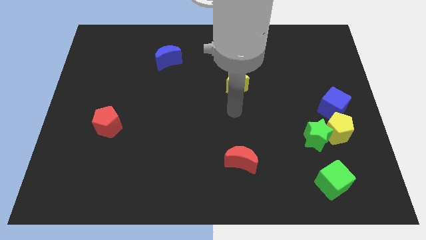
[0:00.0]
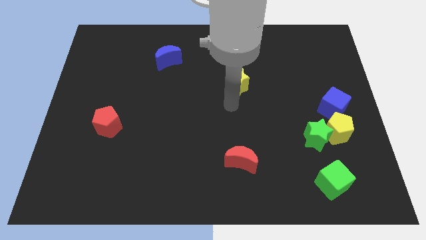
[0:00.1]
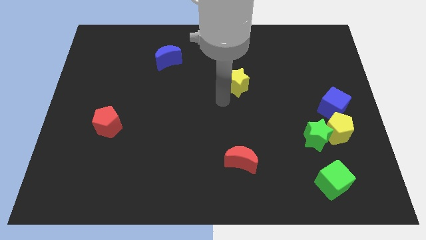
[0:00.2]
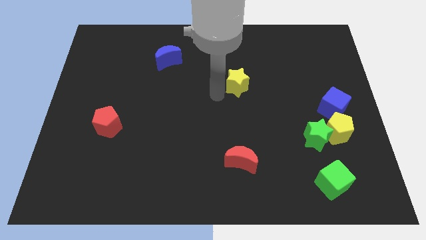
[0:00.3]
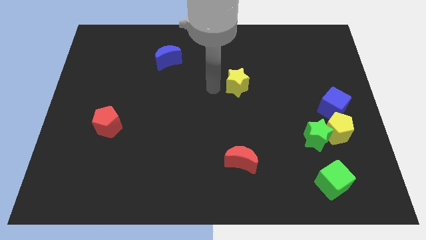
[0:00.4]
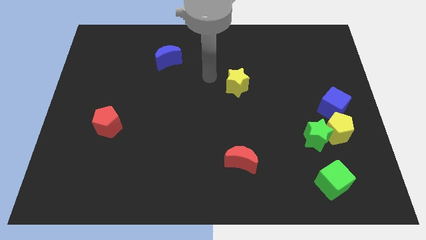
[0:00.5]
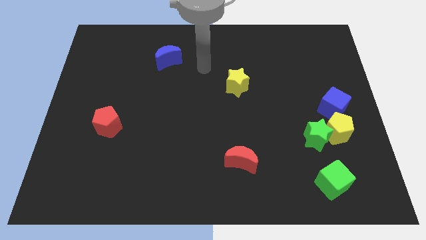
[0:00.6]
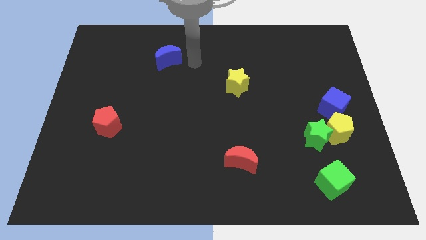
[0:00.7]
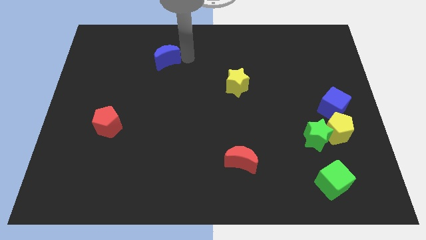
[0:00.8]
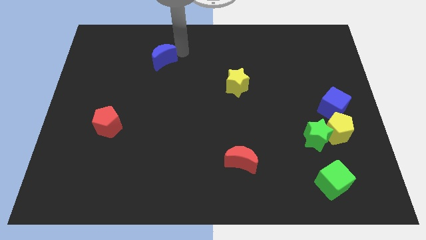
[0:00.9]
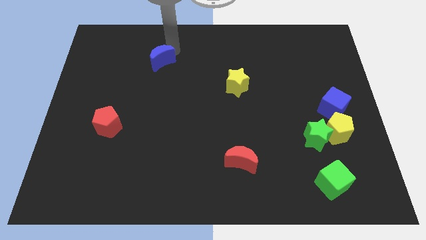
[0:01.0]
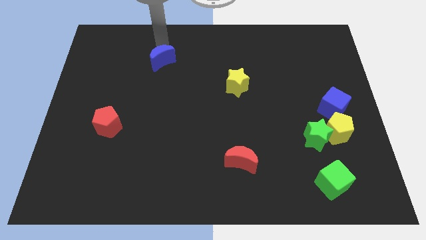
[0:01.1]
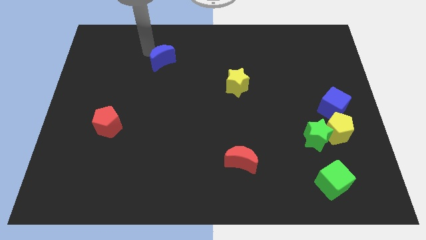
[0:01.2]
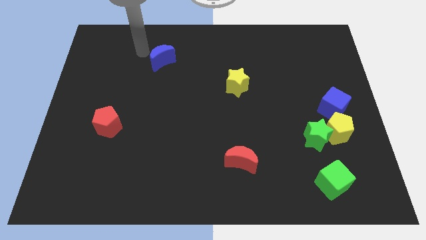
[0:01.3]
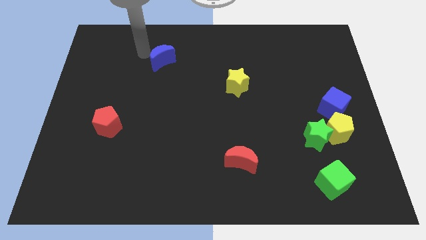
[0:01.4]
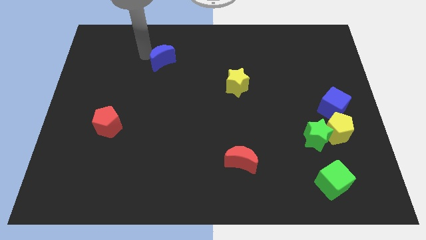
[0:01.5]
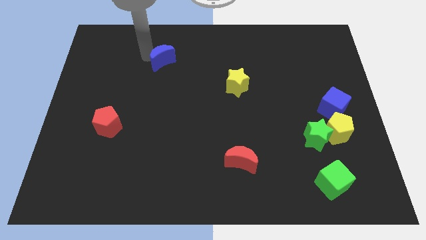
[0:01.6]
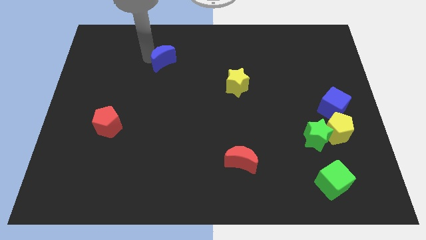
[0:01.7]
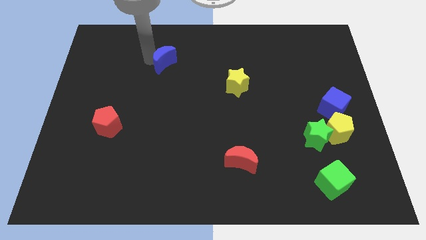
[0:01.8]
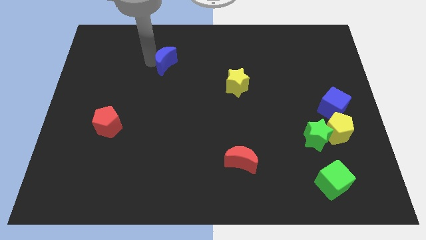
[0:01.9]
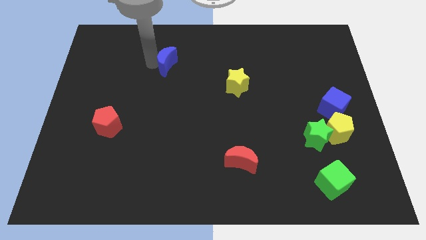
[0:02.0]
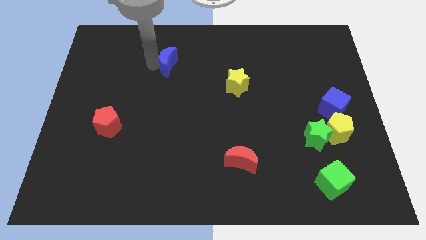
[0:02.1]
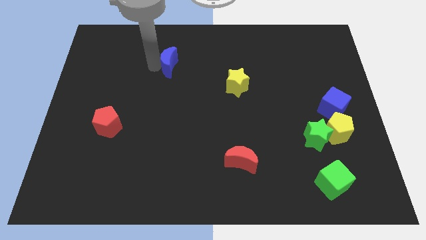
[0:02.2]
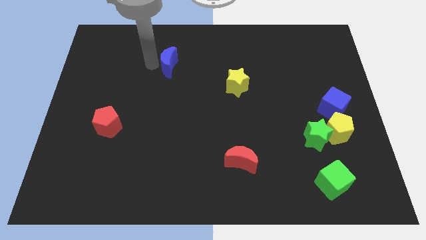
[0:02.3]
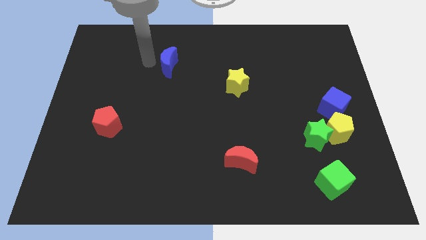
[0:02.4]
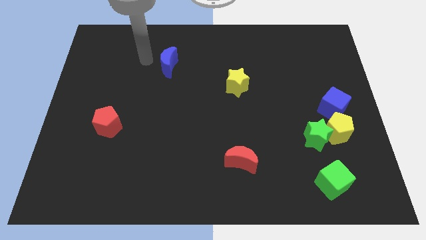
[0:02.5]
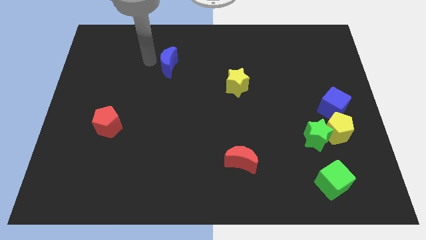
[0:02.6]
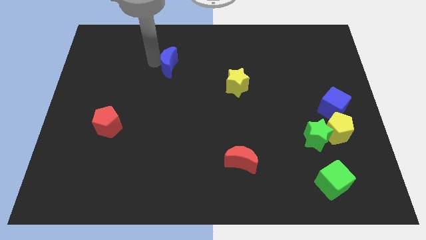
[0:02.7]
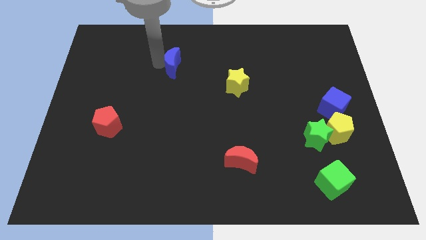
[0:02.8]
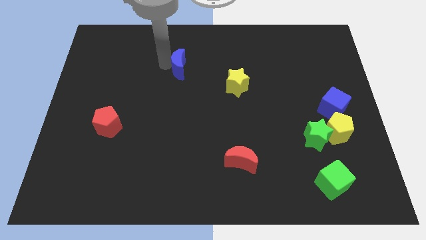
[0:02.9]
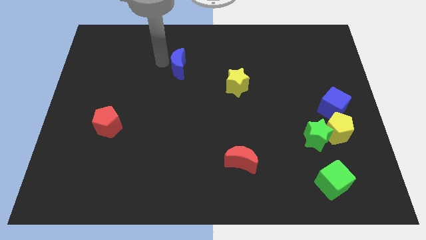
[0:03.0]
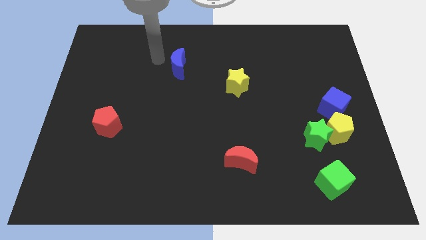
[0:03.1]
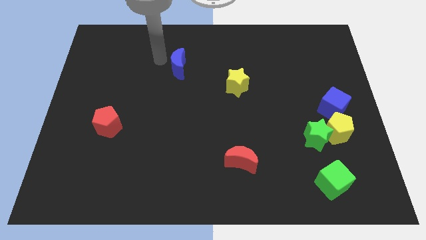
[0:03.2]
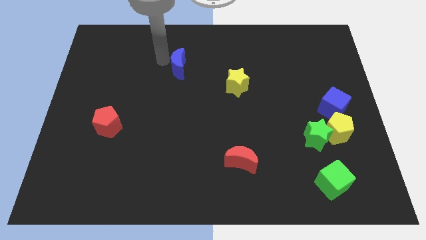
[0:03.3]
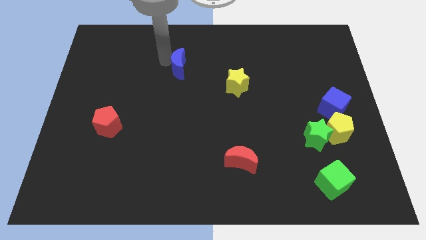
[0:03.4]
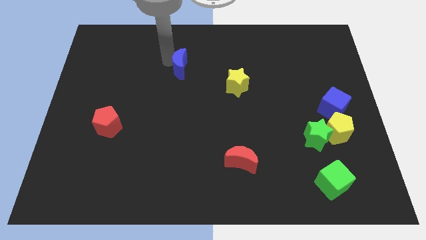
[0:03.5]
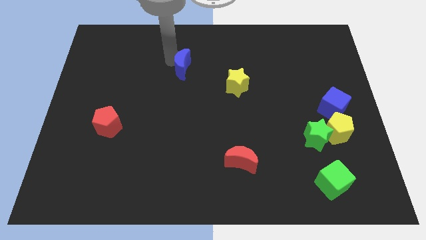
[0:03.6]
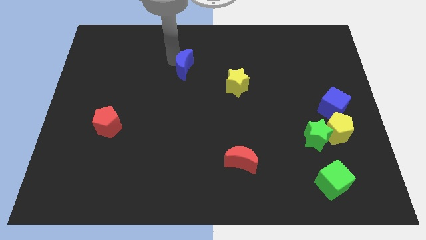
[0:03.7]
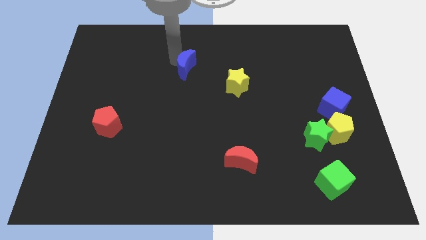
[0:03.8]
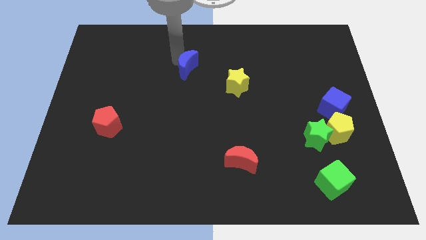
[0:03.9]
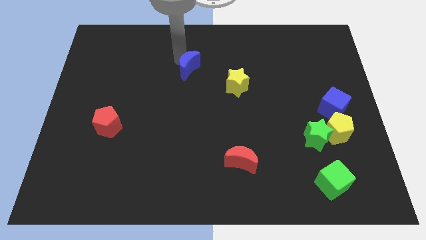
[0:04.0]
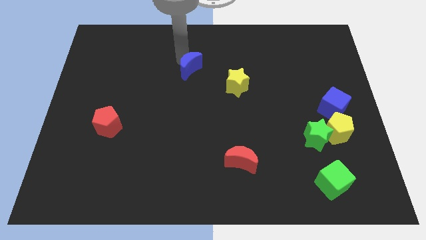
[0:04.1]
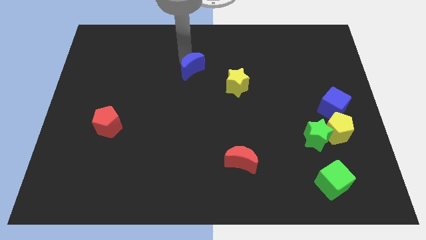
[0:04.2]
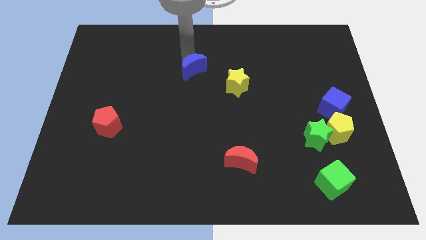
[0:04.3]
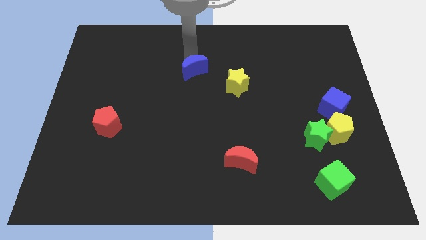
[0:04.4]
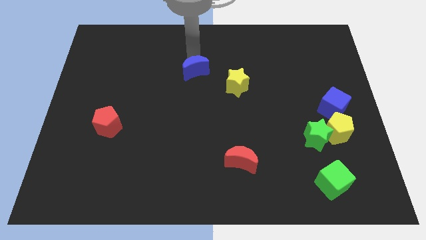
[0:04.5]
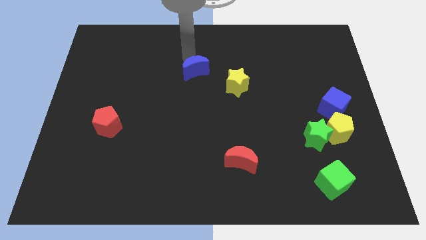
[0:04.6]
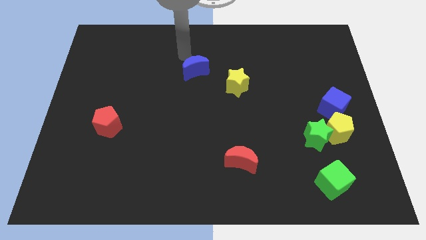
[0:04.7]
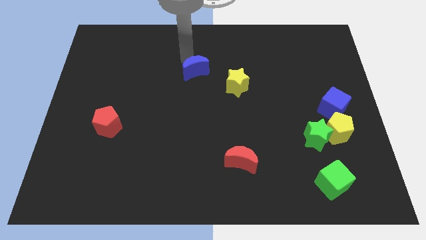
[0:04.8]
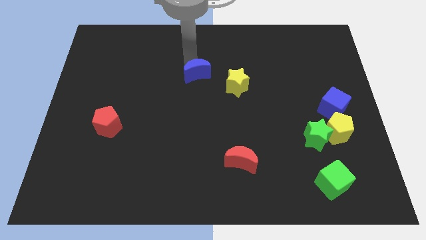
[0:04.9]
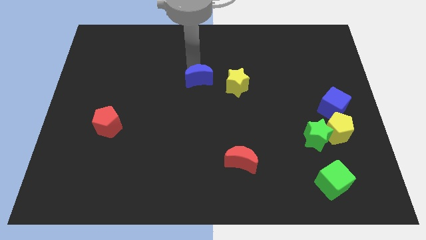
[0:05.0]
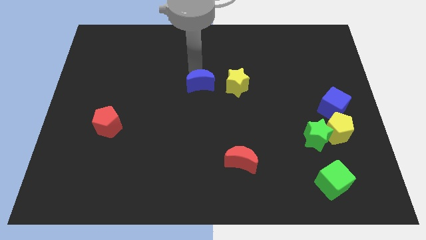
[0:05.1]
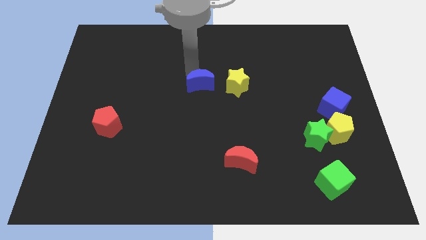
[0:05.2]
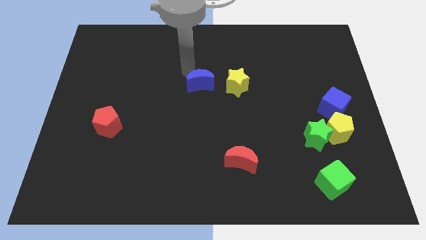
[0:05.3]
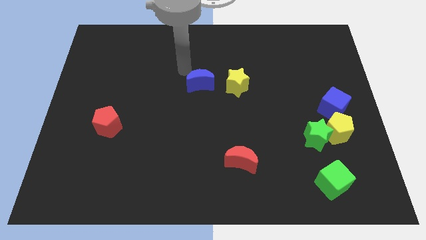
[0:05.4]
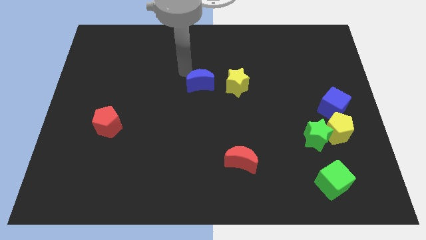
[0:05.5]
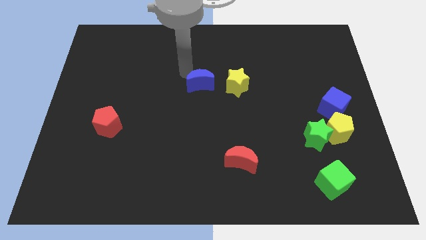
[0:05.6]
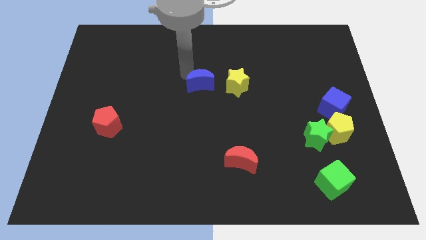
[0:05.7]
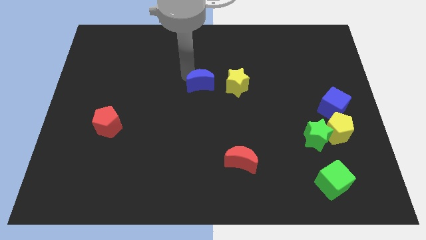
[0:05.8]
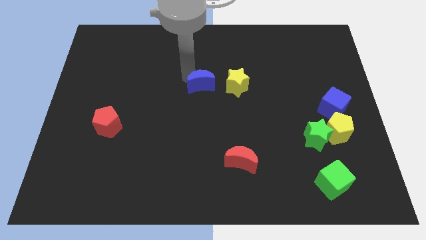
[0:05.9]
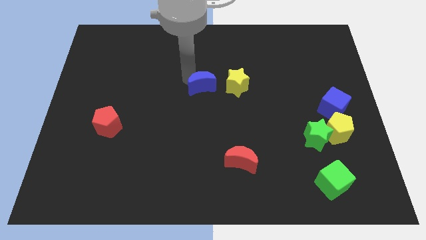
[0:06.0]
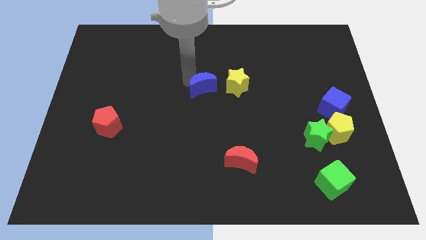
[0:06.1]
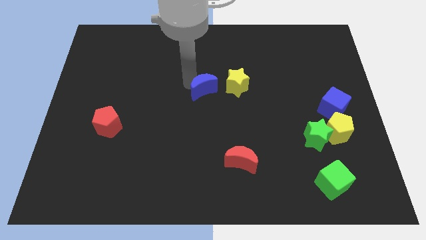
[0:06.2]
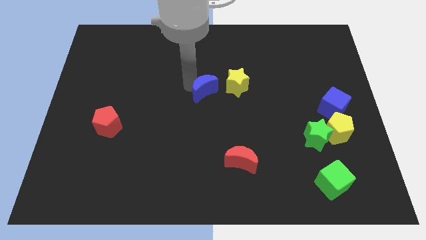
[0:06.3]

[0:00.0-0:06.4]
put the blue moon to the bottom left of the yellow star
